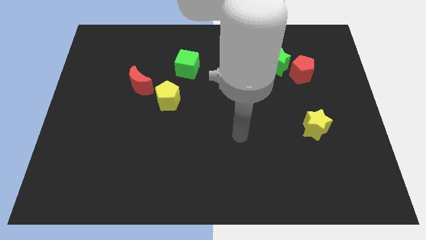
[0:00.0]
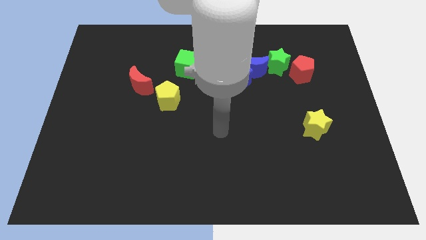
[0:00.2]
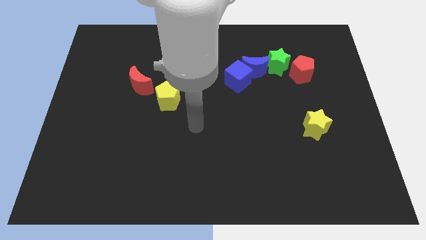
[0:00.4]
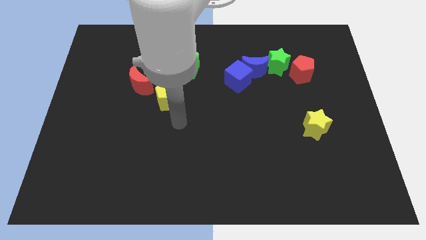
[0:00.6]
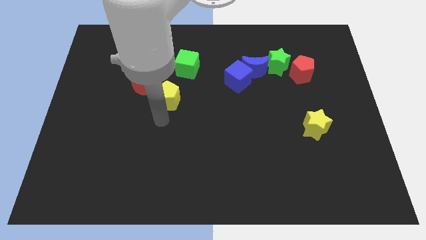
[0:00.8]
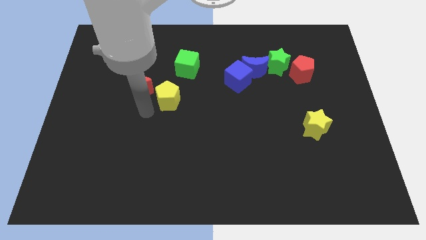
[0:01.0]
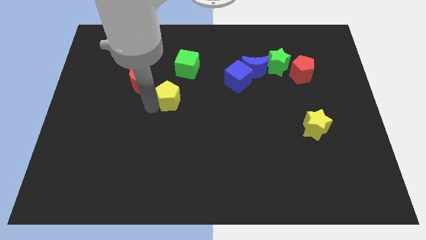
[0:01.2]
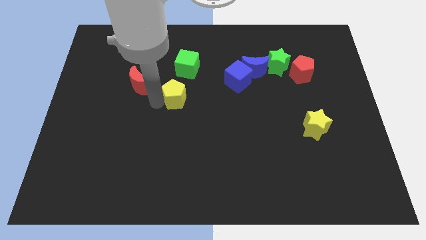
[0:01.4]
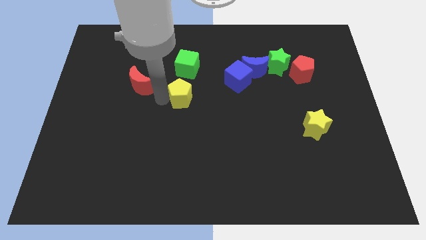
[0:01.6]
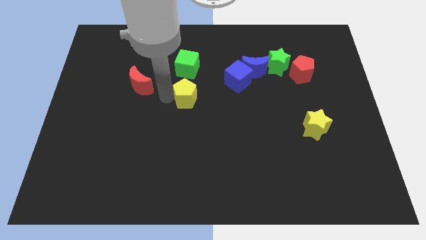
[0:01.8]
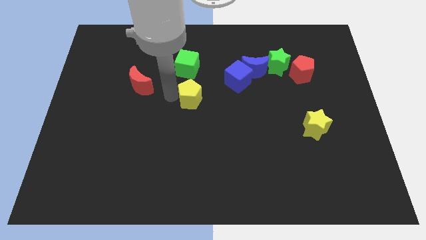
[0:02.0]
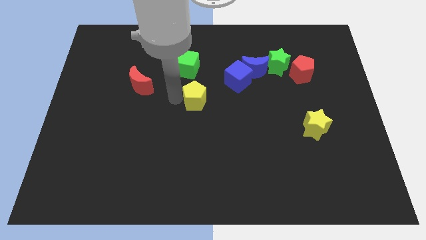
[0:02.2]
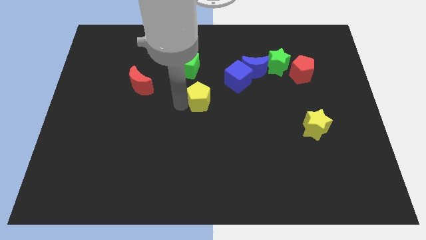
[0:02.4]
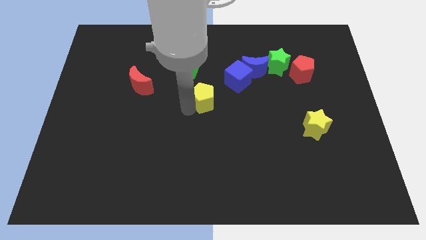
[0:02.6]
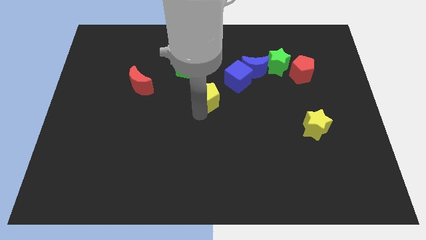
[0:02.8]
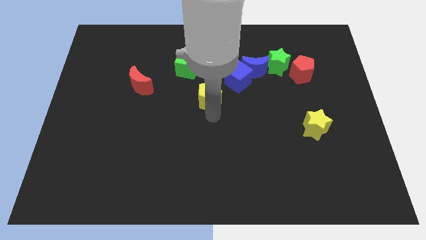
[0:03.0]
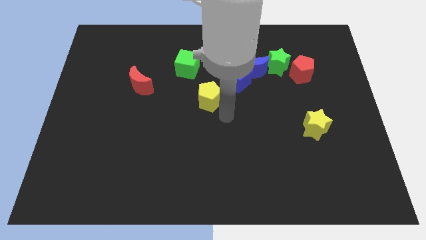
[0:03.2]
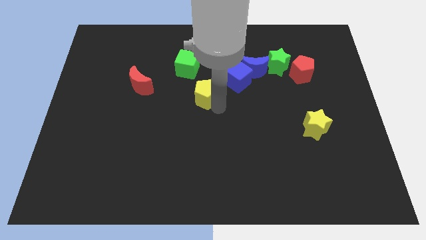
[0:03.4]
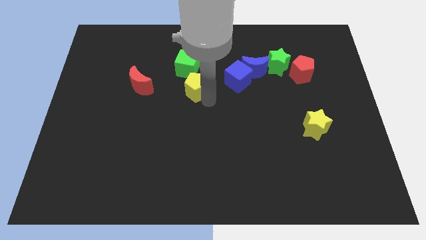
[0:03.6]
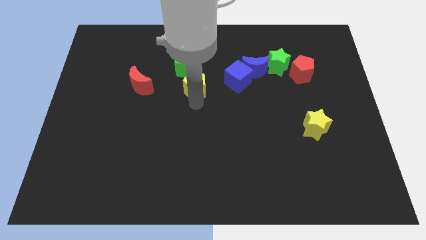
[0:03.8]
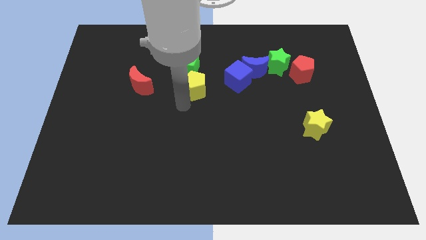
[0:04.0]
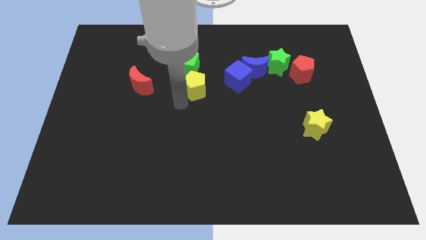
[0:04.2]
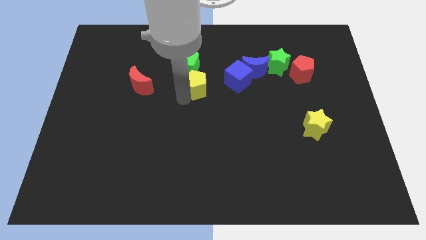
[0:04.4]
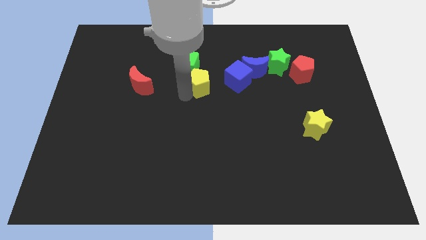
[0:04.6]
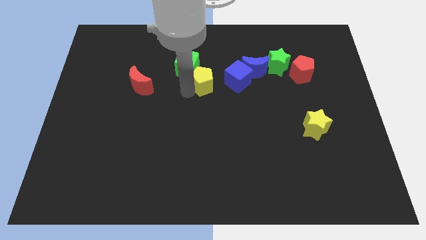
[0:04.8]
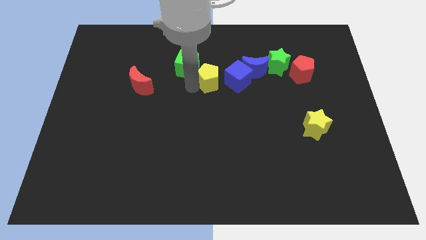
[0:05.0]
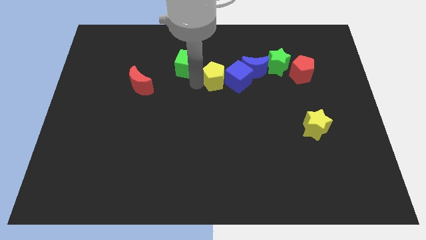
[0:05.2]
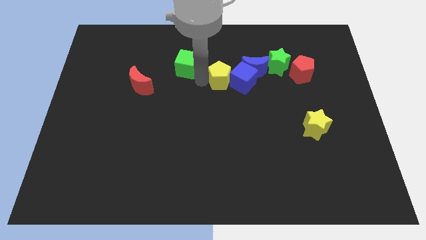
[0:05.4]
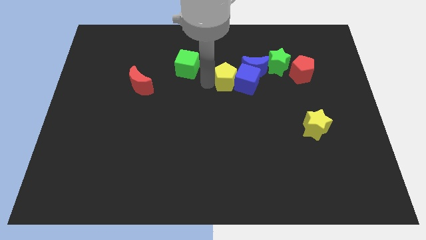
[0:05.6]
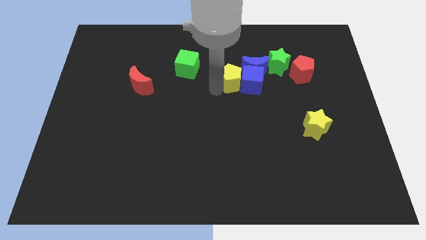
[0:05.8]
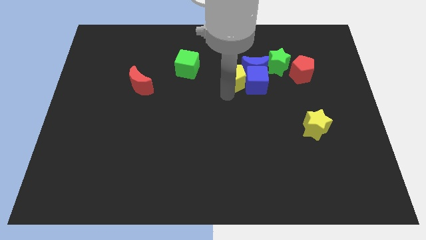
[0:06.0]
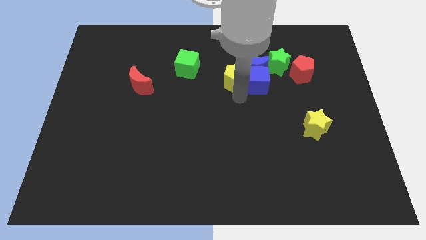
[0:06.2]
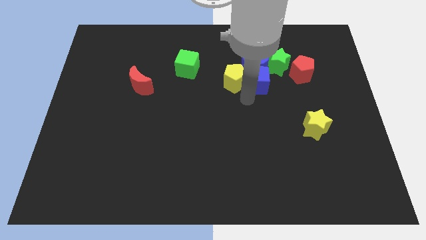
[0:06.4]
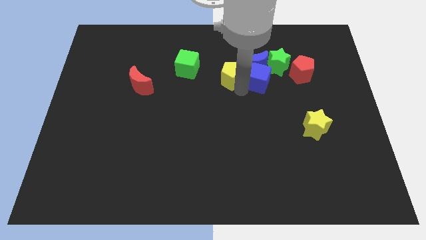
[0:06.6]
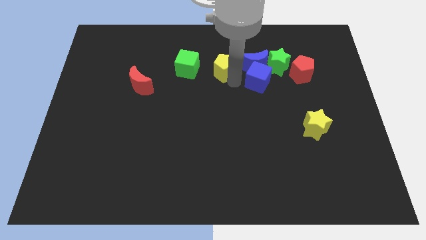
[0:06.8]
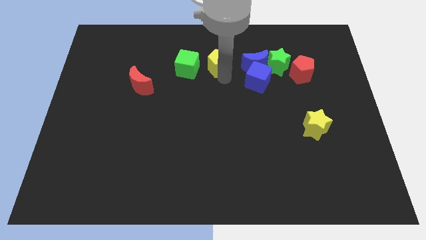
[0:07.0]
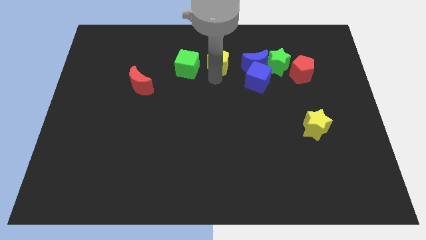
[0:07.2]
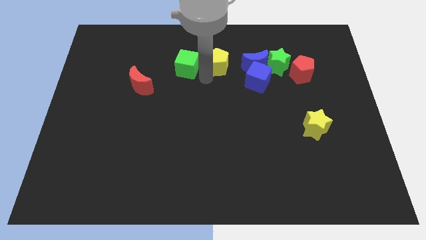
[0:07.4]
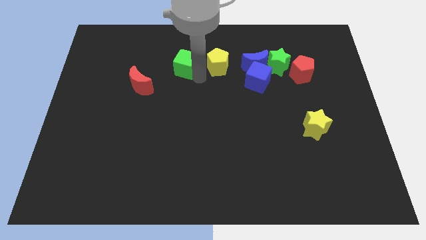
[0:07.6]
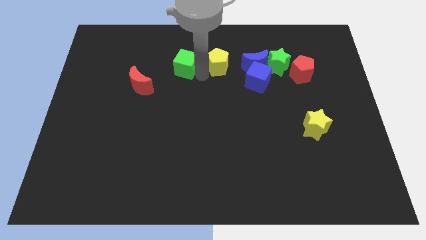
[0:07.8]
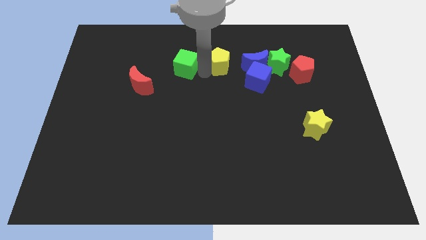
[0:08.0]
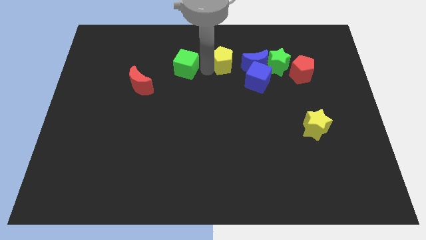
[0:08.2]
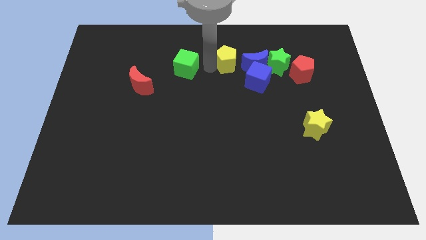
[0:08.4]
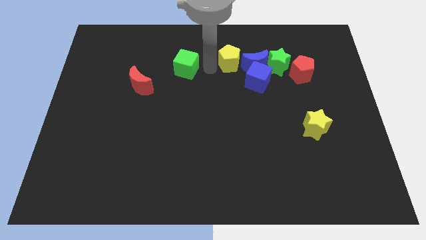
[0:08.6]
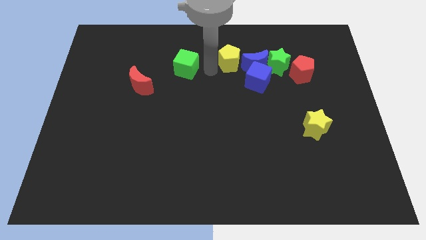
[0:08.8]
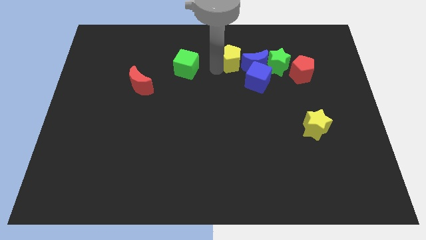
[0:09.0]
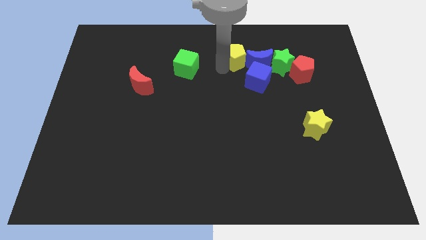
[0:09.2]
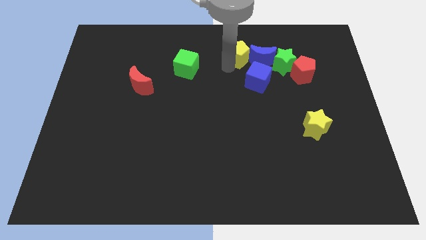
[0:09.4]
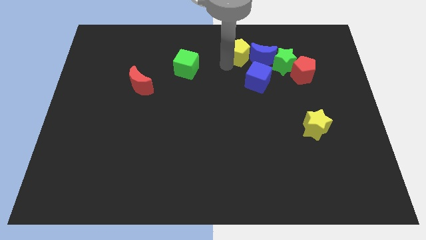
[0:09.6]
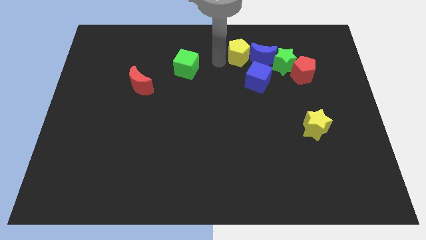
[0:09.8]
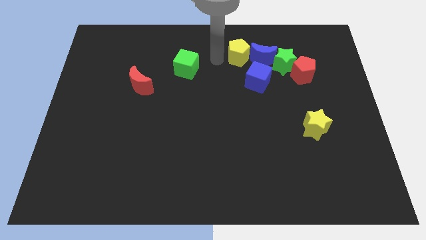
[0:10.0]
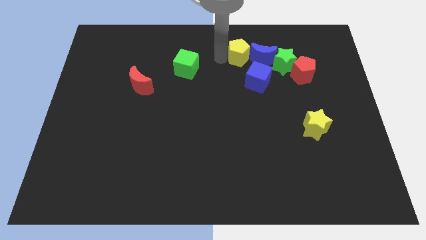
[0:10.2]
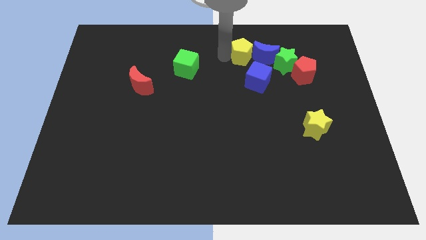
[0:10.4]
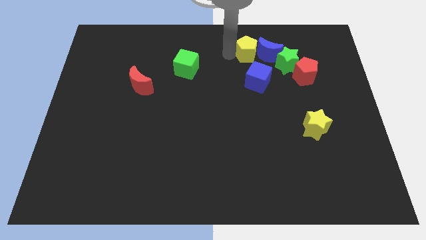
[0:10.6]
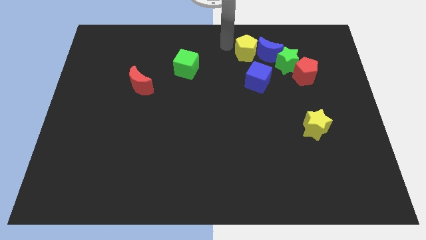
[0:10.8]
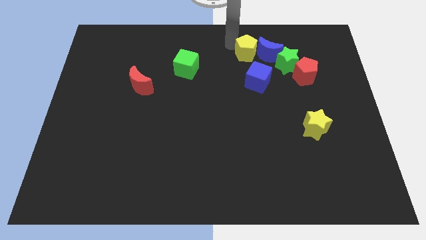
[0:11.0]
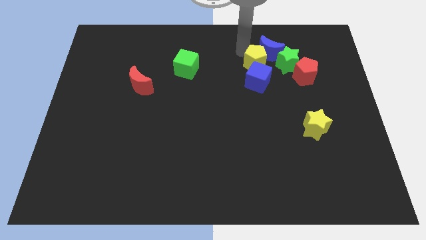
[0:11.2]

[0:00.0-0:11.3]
put the yellow pentagon to the top right side of the blue cube

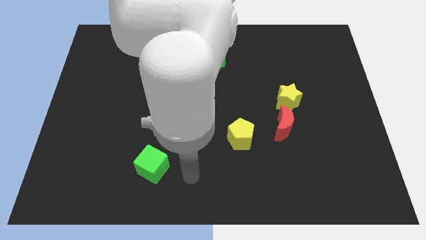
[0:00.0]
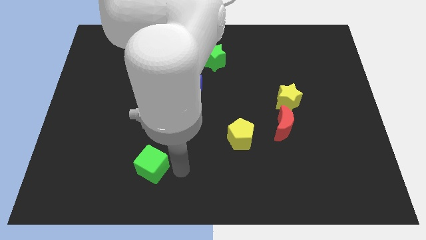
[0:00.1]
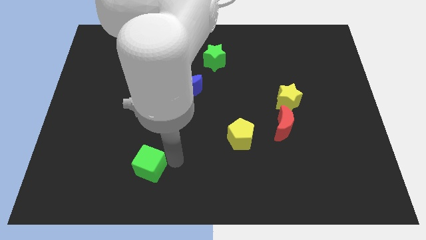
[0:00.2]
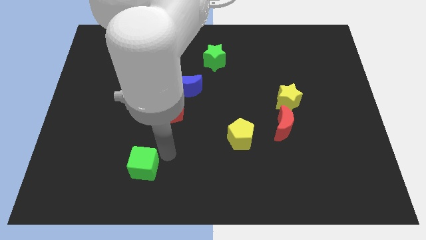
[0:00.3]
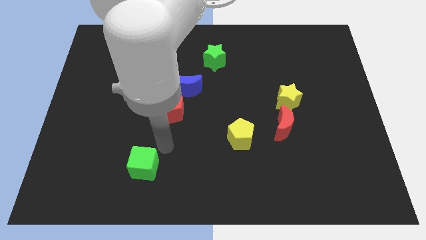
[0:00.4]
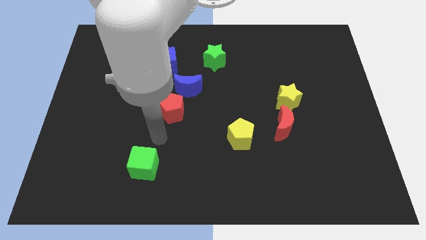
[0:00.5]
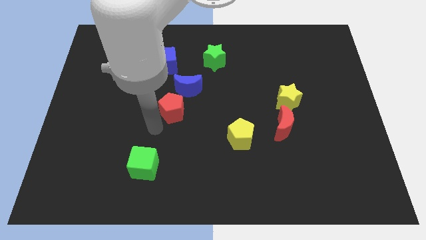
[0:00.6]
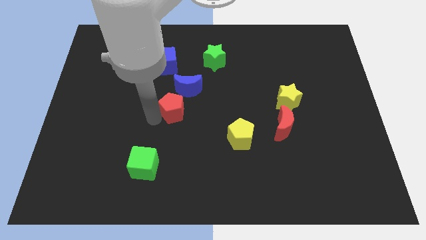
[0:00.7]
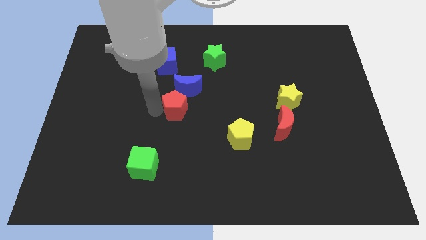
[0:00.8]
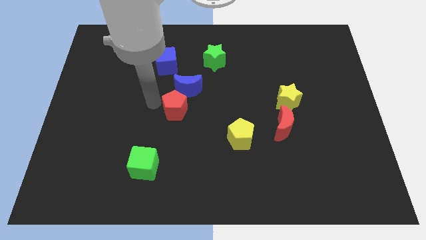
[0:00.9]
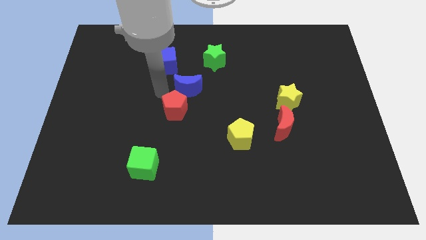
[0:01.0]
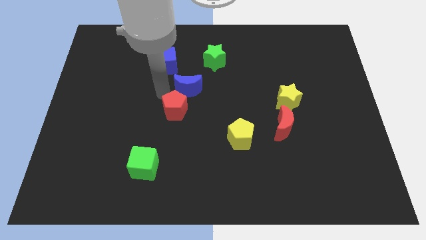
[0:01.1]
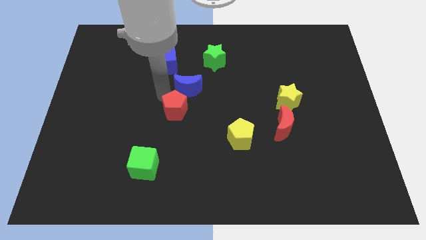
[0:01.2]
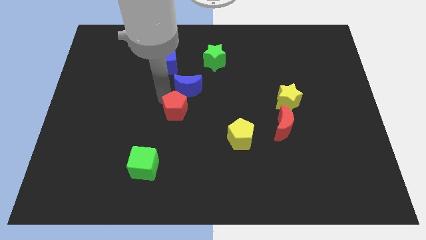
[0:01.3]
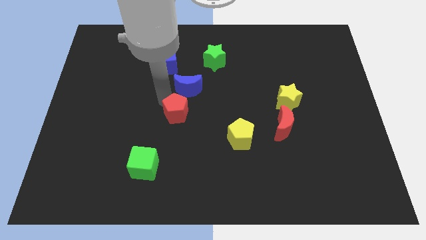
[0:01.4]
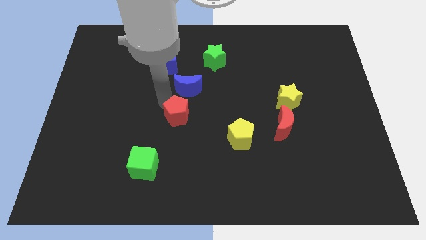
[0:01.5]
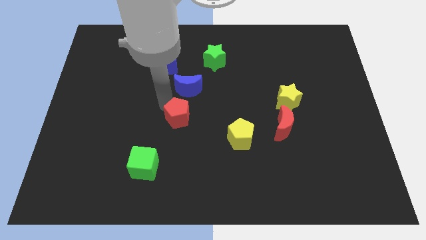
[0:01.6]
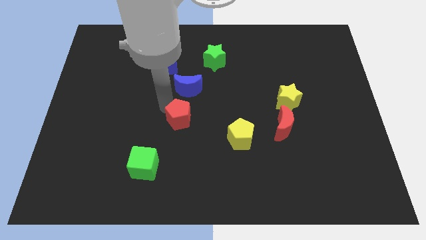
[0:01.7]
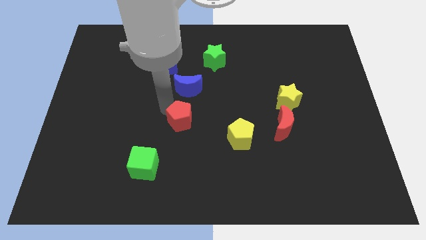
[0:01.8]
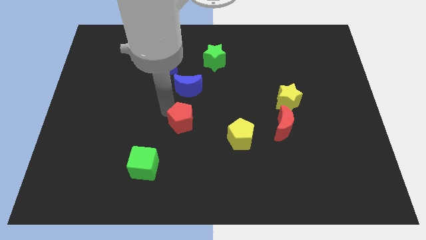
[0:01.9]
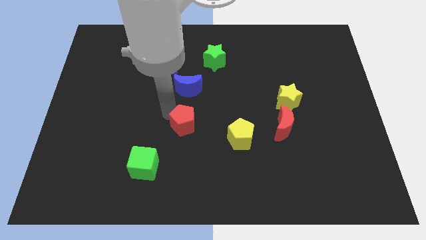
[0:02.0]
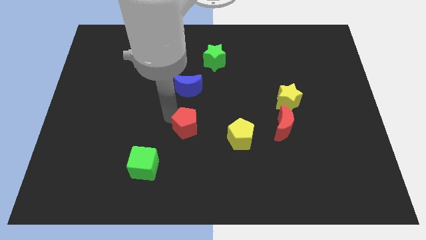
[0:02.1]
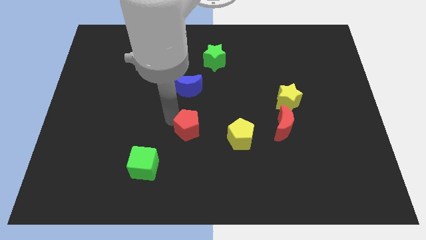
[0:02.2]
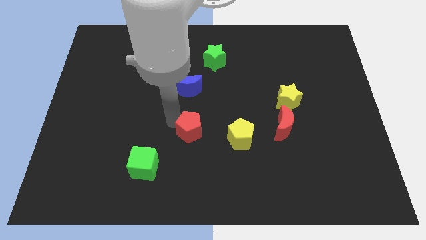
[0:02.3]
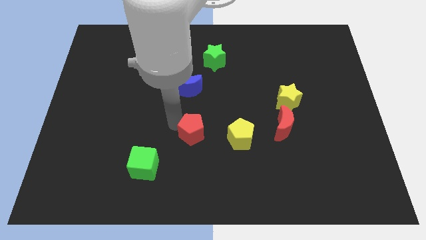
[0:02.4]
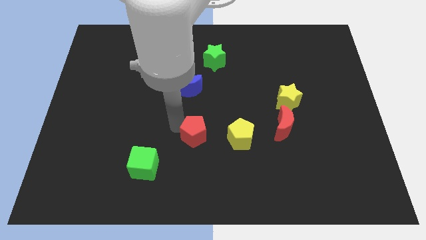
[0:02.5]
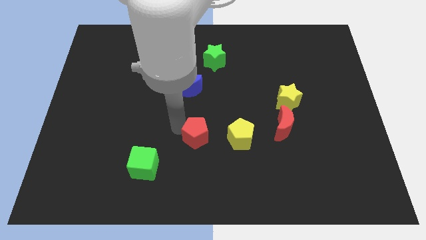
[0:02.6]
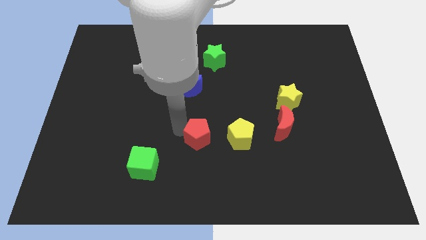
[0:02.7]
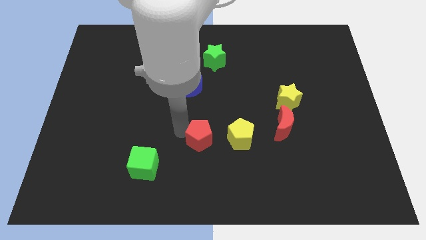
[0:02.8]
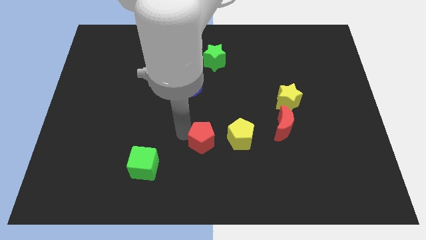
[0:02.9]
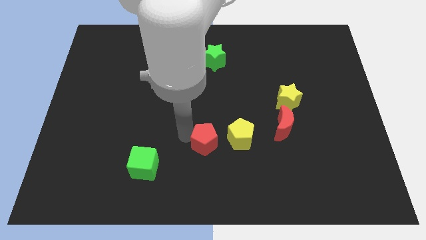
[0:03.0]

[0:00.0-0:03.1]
put the red pentagon diagonally down and to the left of the yellow pentagon
